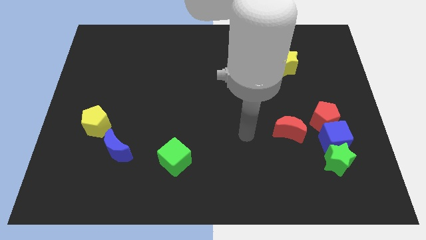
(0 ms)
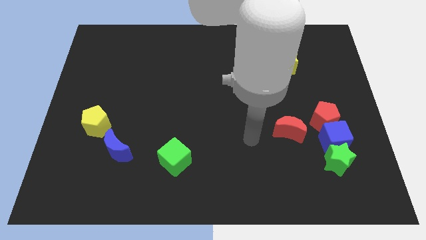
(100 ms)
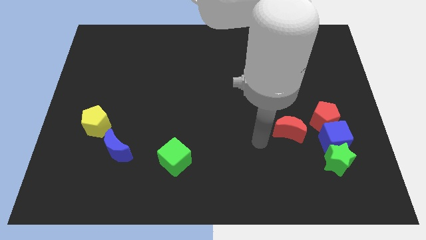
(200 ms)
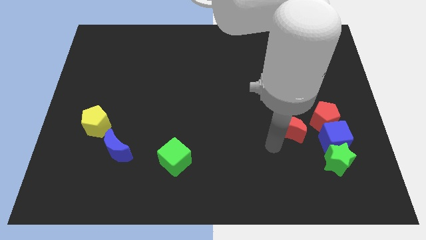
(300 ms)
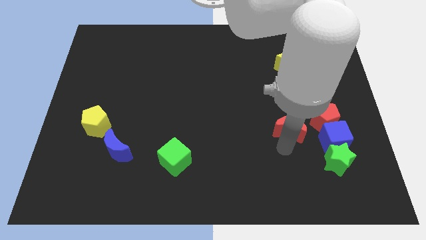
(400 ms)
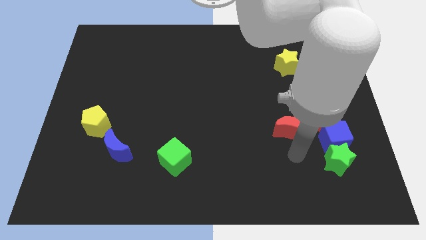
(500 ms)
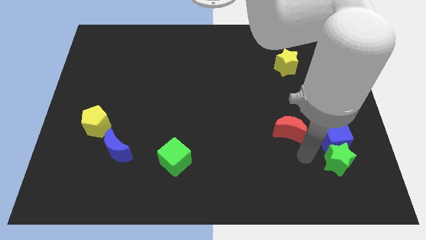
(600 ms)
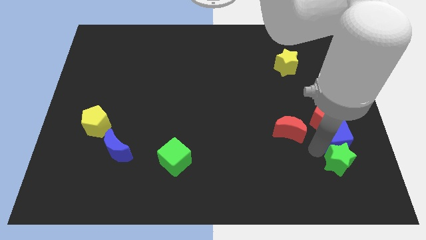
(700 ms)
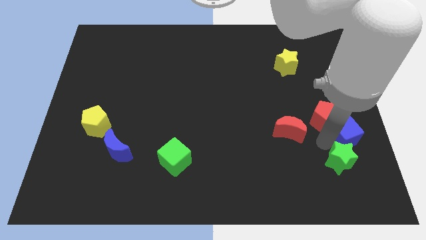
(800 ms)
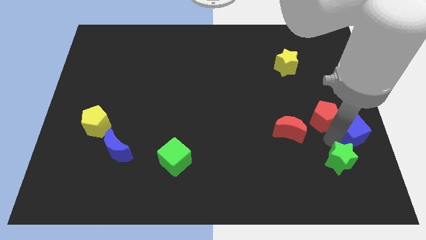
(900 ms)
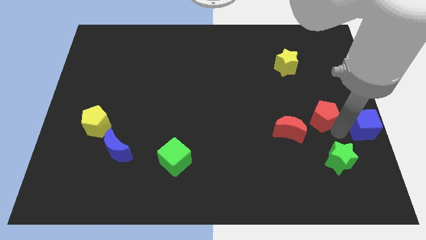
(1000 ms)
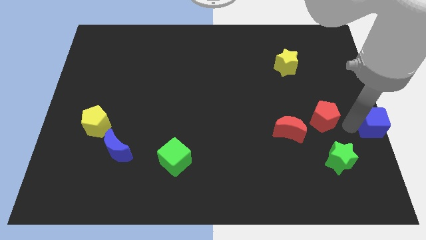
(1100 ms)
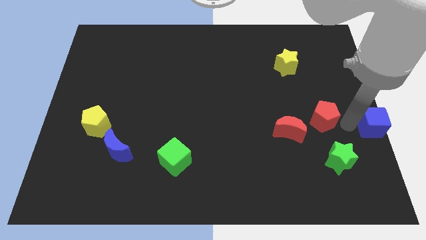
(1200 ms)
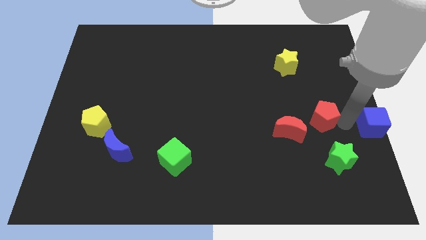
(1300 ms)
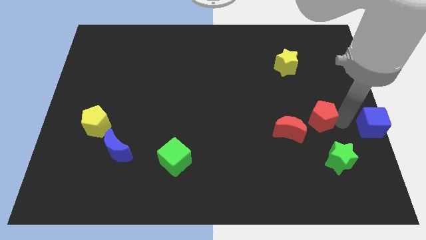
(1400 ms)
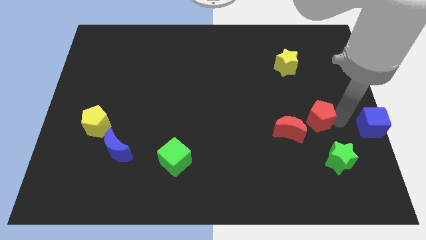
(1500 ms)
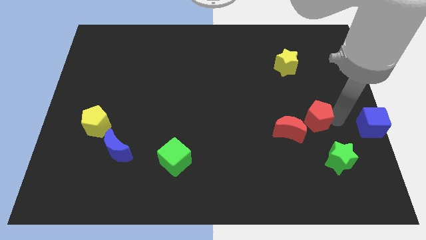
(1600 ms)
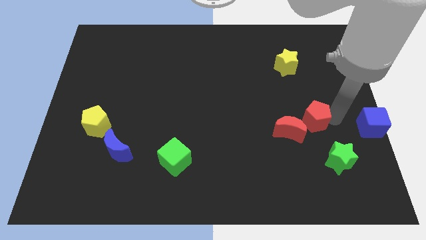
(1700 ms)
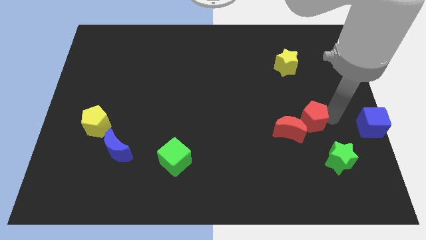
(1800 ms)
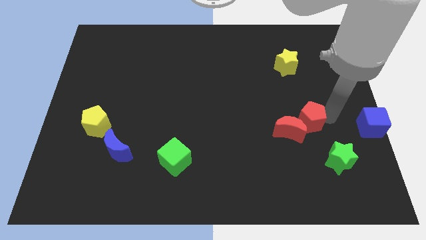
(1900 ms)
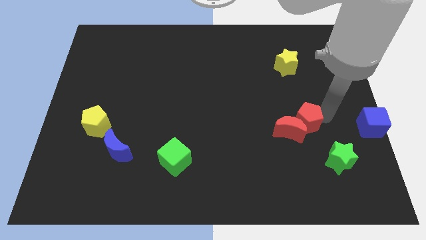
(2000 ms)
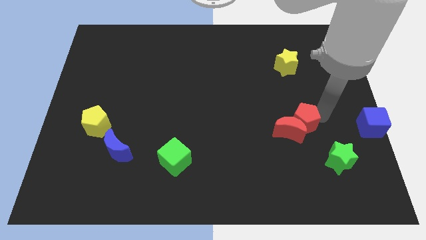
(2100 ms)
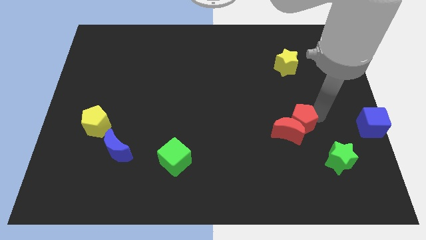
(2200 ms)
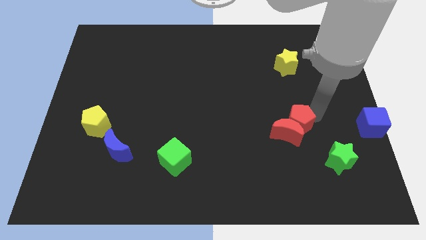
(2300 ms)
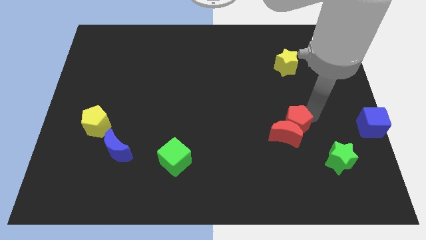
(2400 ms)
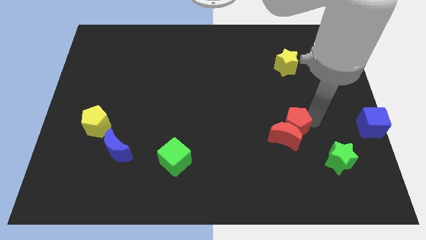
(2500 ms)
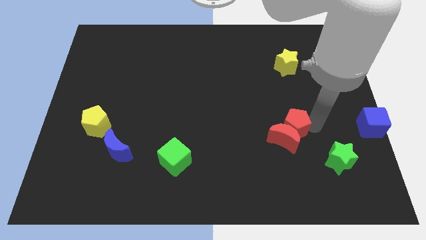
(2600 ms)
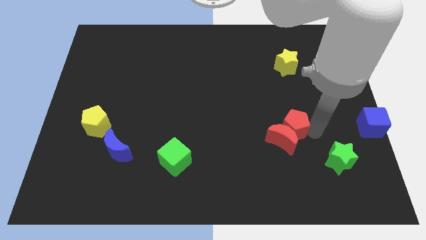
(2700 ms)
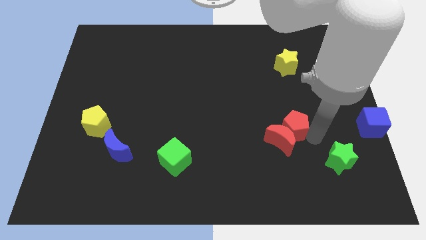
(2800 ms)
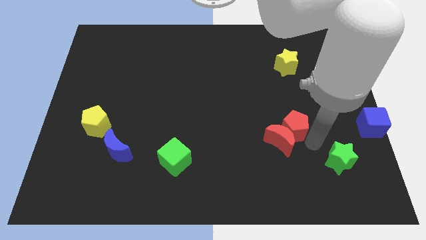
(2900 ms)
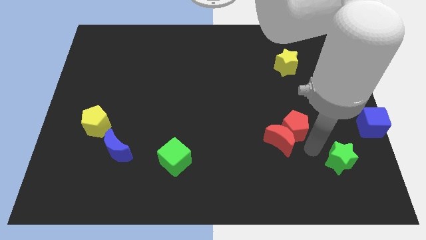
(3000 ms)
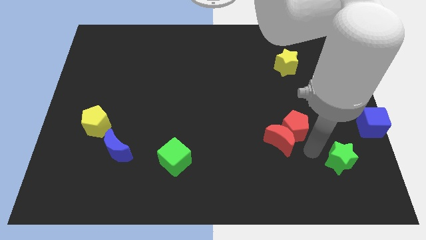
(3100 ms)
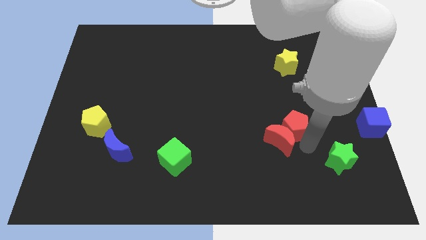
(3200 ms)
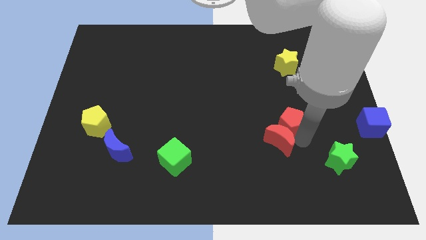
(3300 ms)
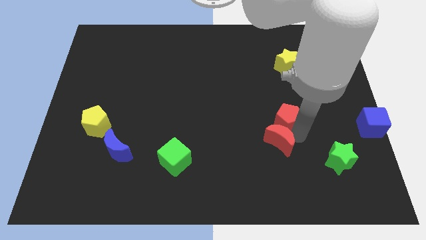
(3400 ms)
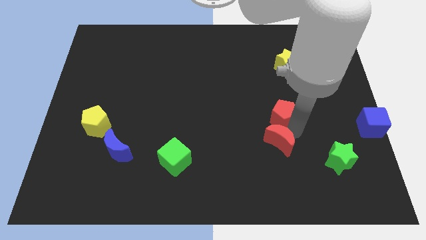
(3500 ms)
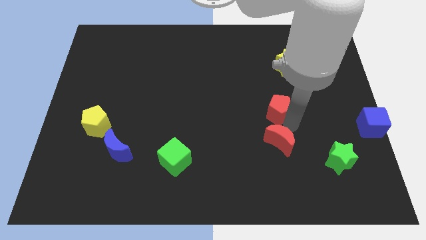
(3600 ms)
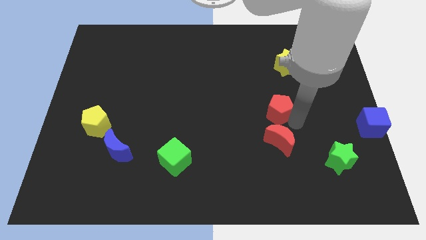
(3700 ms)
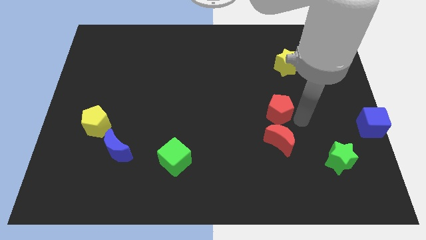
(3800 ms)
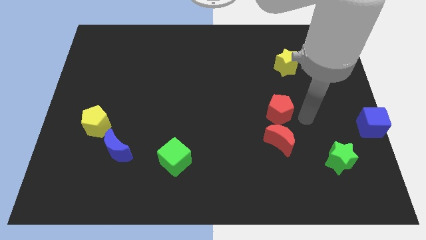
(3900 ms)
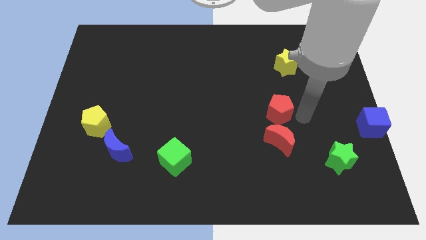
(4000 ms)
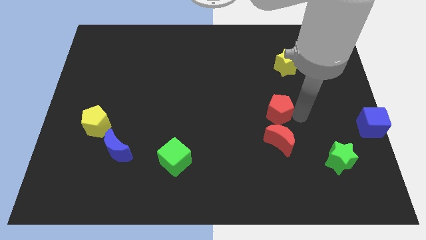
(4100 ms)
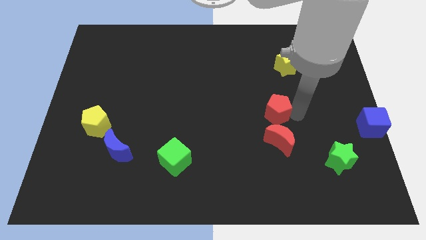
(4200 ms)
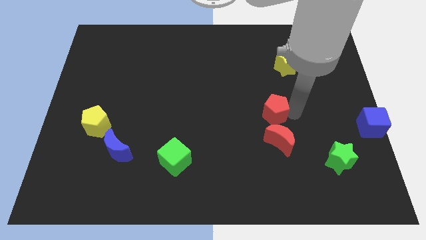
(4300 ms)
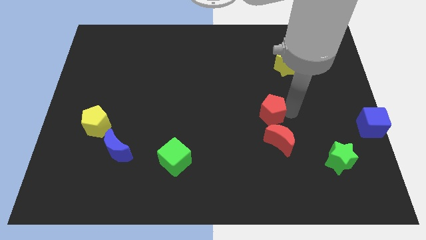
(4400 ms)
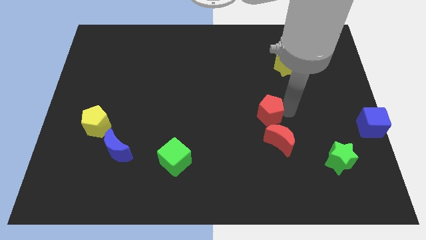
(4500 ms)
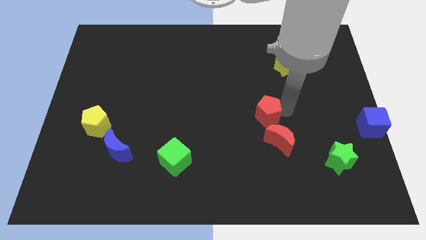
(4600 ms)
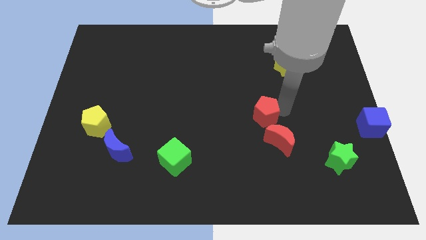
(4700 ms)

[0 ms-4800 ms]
put the red pentagon to the middle of the board

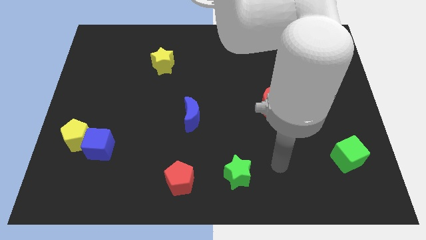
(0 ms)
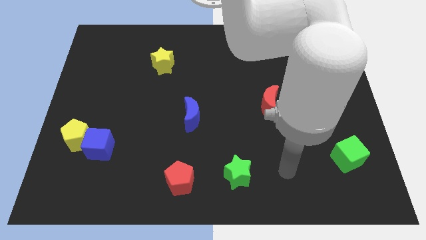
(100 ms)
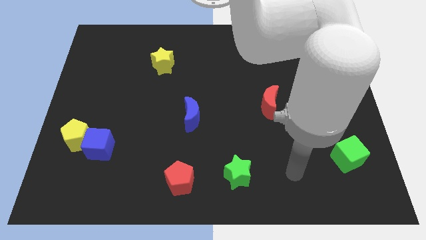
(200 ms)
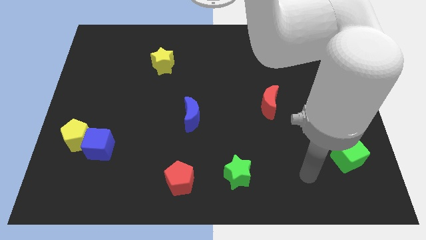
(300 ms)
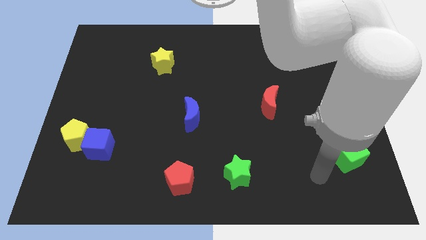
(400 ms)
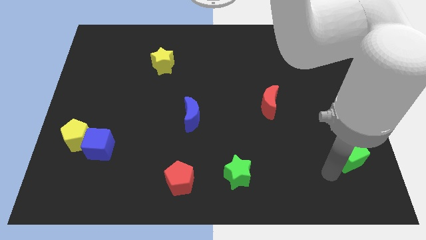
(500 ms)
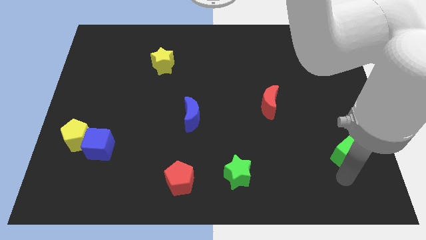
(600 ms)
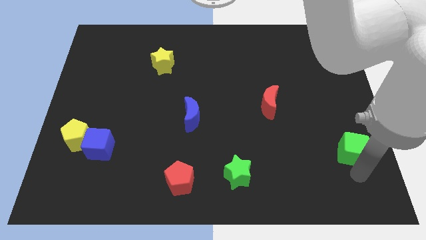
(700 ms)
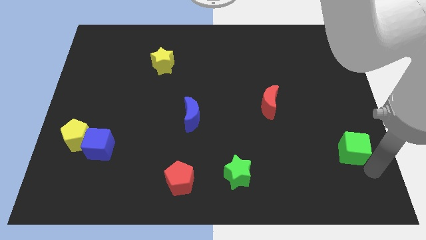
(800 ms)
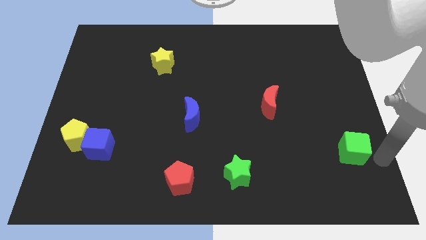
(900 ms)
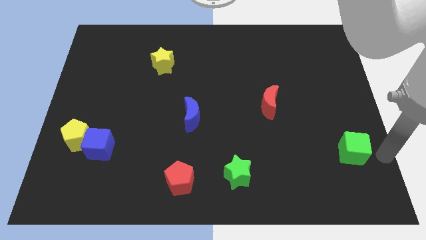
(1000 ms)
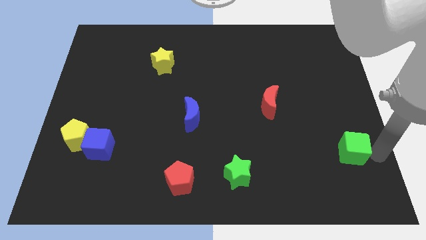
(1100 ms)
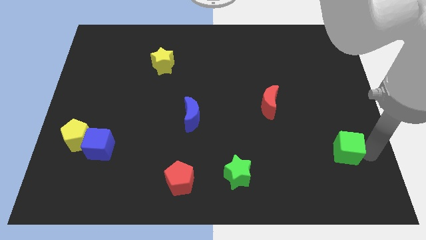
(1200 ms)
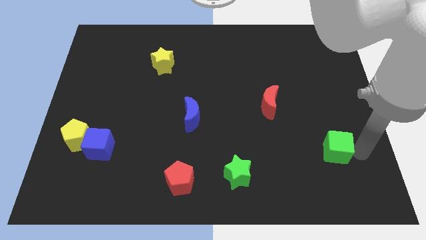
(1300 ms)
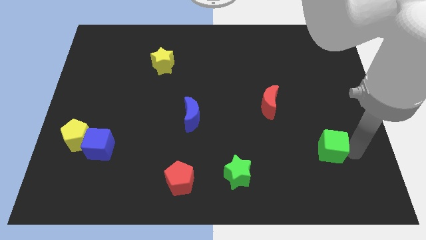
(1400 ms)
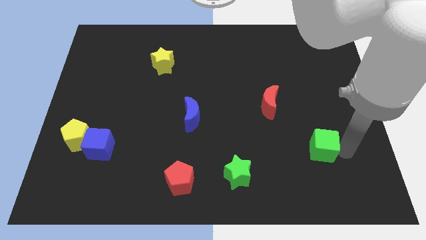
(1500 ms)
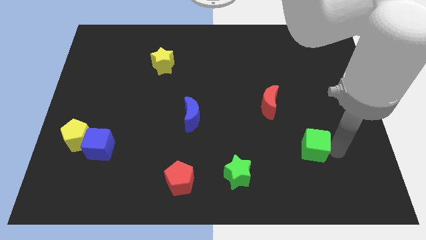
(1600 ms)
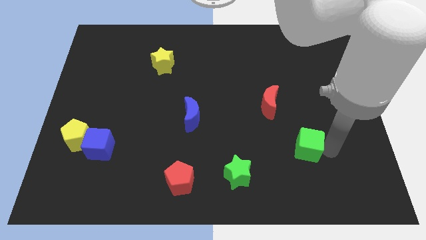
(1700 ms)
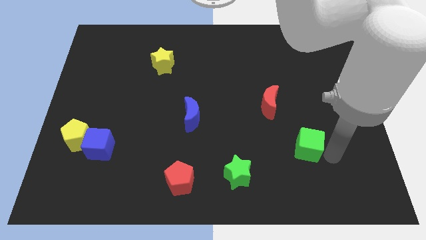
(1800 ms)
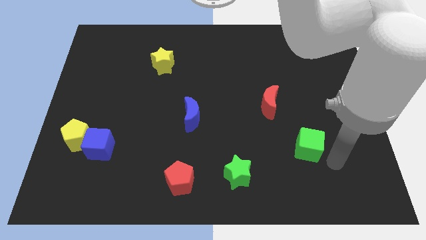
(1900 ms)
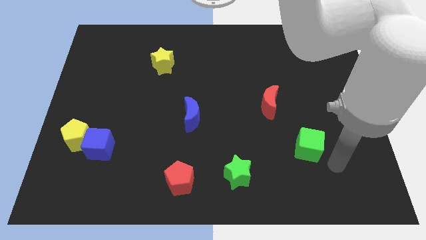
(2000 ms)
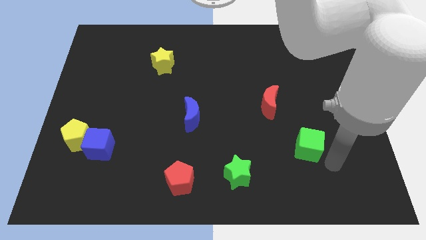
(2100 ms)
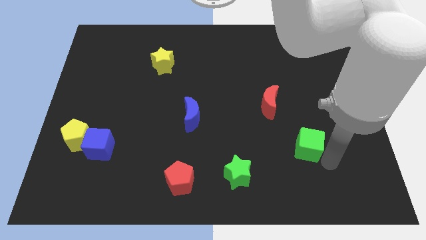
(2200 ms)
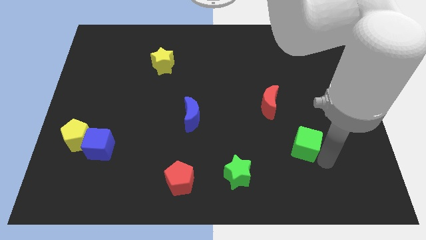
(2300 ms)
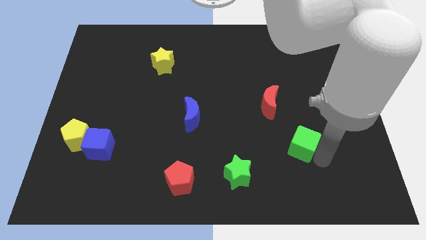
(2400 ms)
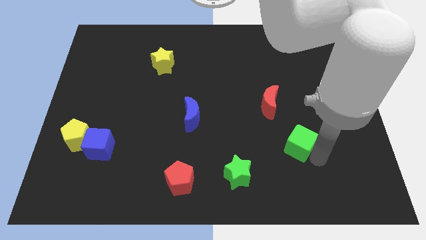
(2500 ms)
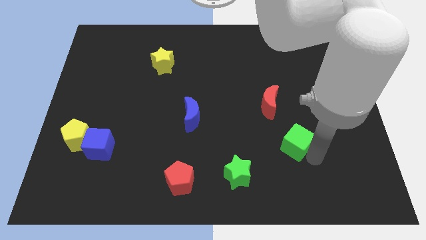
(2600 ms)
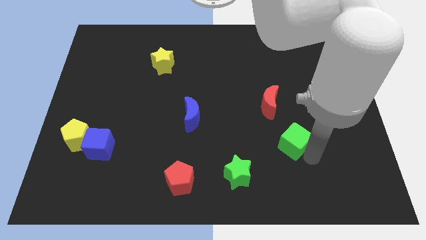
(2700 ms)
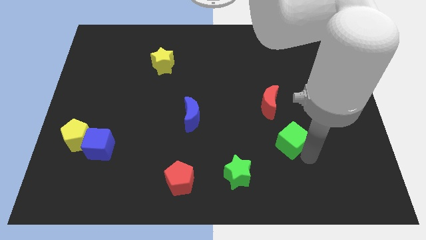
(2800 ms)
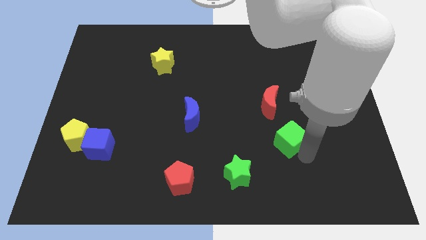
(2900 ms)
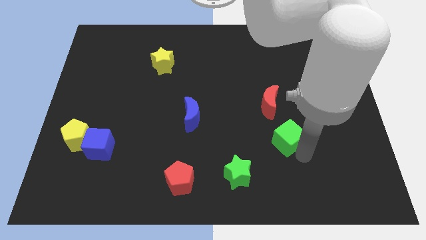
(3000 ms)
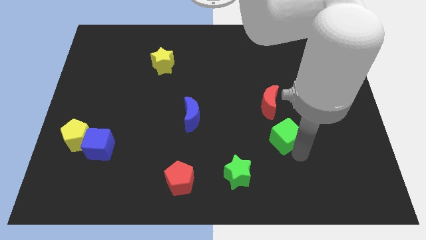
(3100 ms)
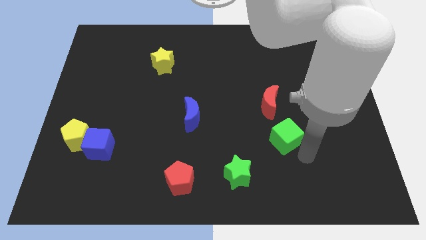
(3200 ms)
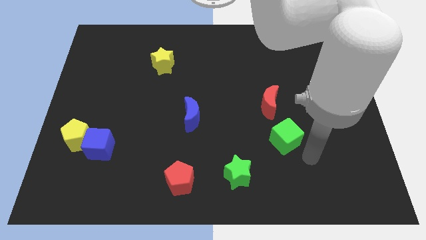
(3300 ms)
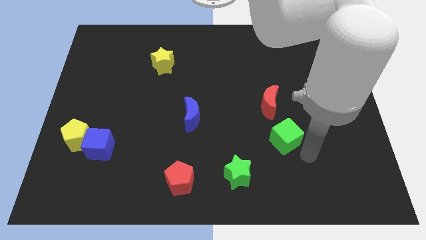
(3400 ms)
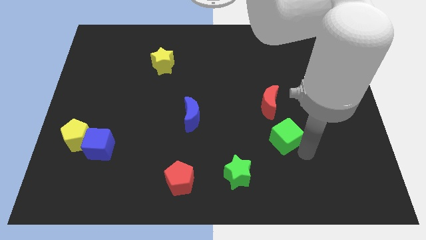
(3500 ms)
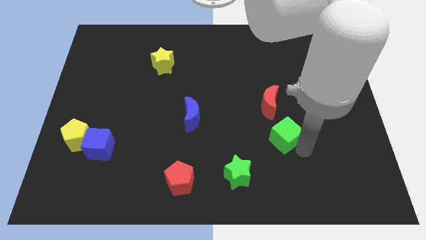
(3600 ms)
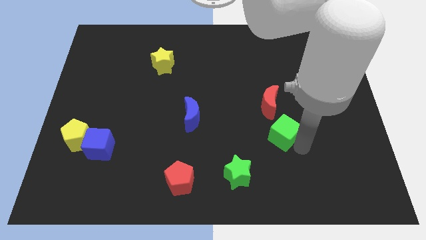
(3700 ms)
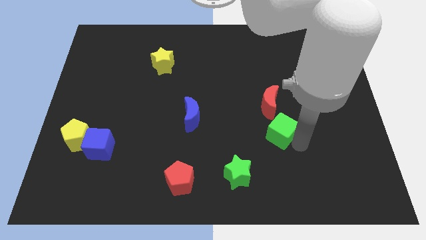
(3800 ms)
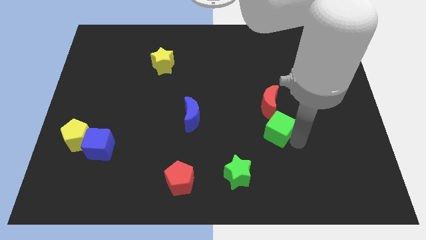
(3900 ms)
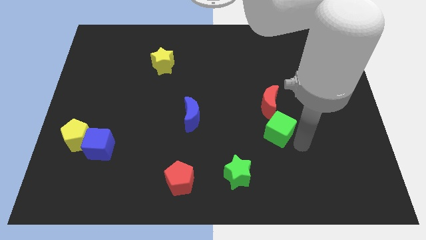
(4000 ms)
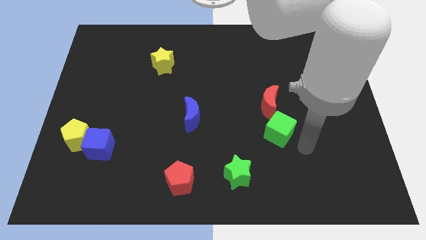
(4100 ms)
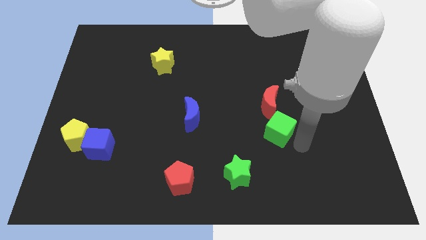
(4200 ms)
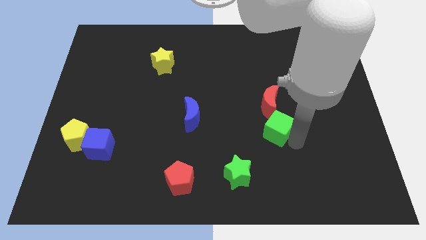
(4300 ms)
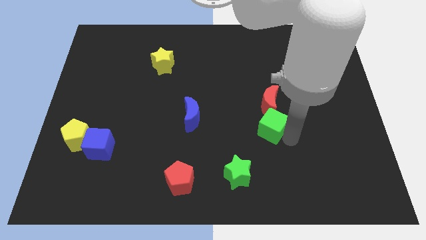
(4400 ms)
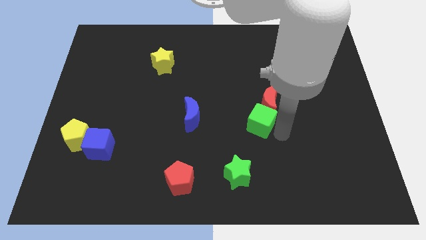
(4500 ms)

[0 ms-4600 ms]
push the green cube to the center
